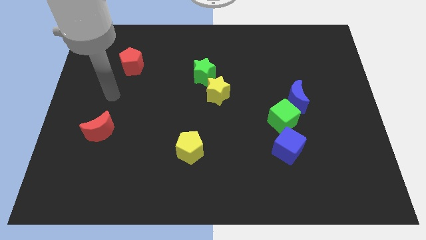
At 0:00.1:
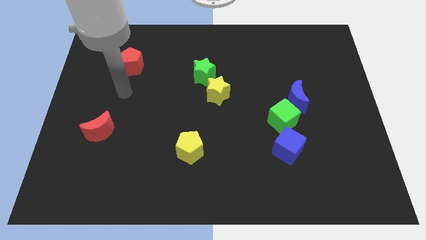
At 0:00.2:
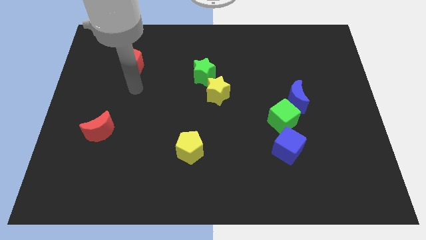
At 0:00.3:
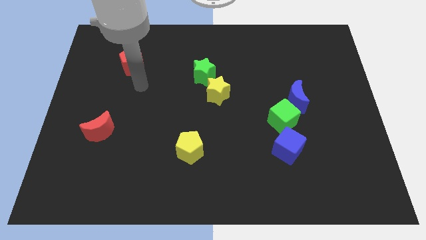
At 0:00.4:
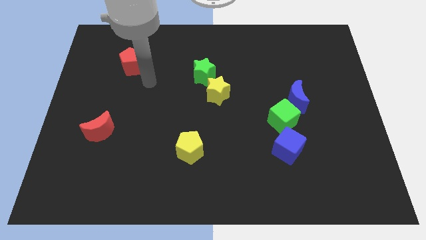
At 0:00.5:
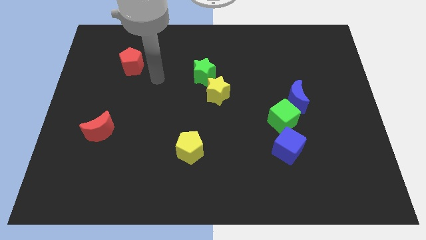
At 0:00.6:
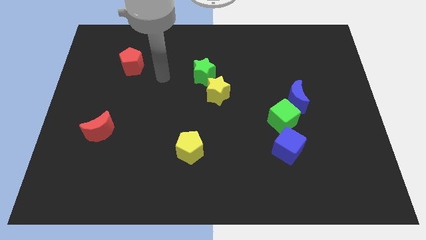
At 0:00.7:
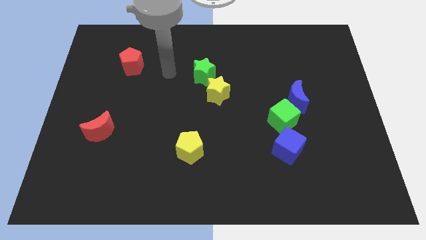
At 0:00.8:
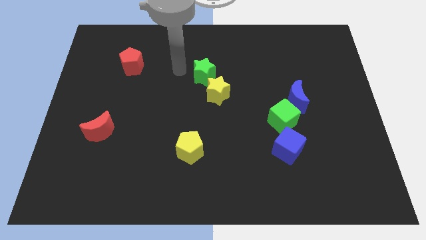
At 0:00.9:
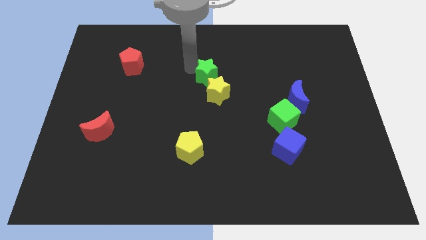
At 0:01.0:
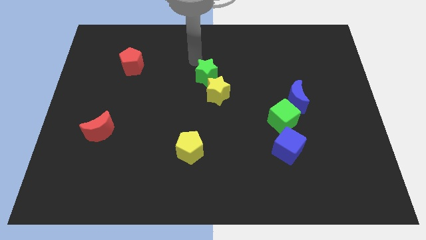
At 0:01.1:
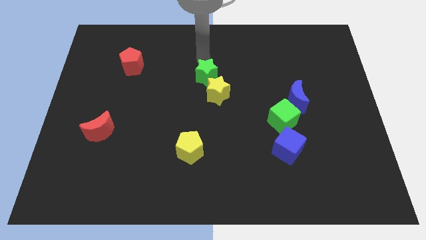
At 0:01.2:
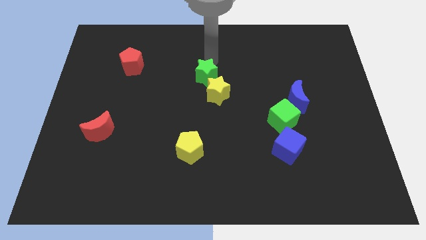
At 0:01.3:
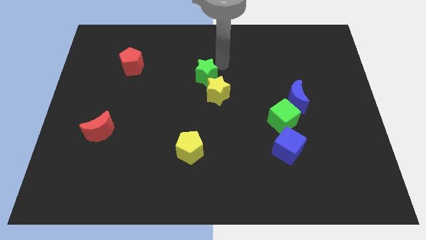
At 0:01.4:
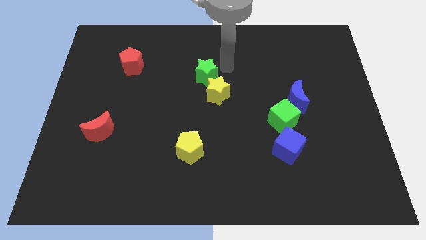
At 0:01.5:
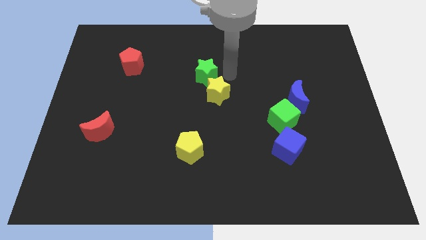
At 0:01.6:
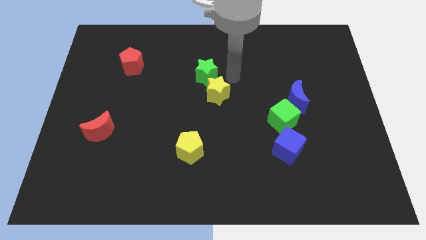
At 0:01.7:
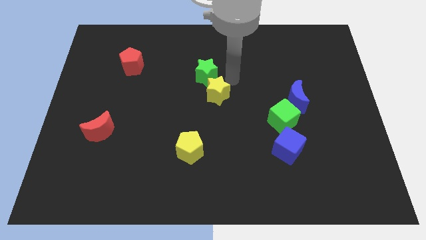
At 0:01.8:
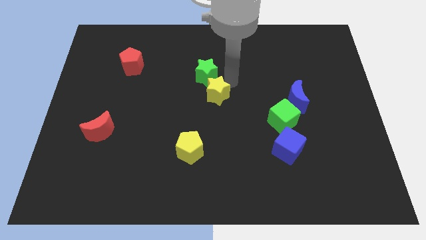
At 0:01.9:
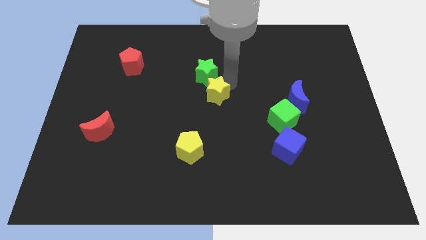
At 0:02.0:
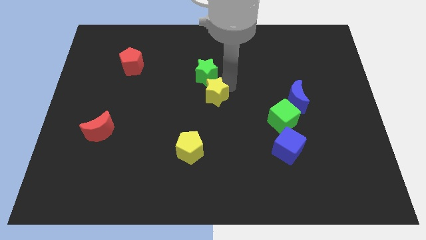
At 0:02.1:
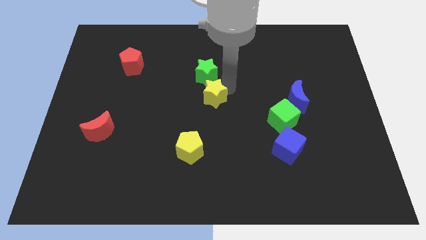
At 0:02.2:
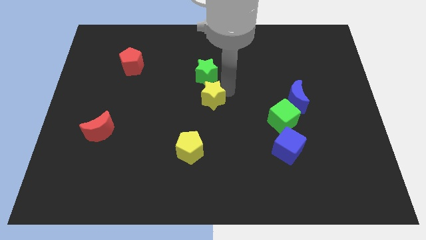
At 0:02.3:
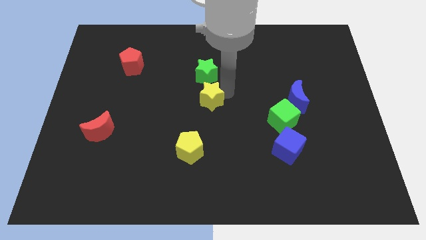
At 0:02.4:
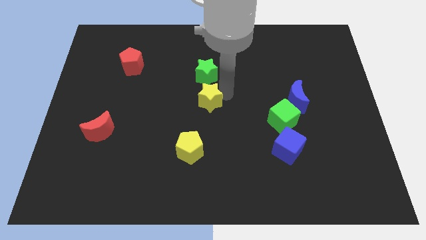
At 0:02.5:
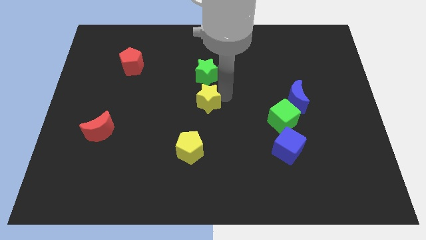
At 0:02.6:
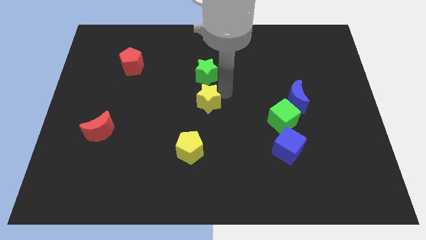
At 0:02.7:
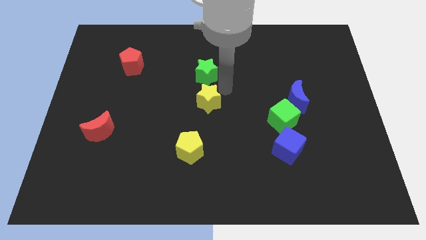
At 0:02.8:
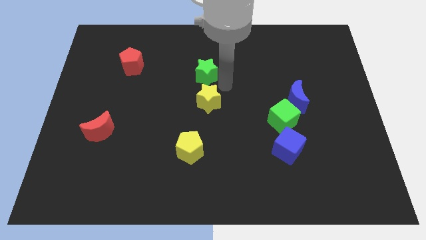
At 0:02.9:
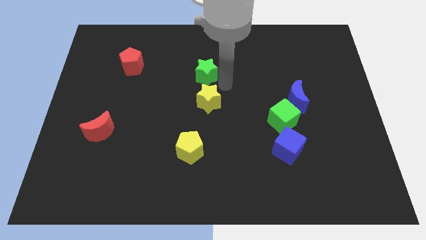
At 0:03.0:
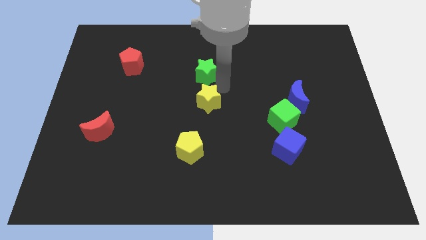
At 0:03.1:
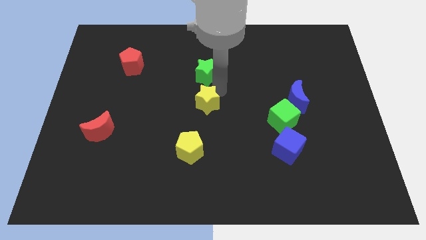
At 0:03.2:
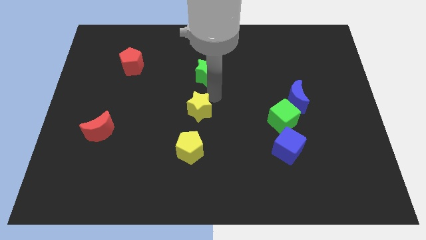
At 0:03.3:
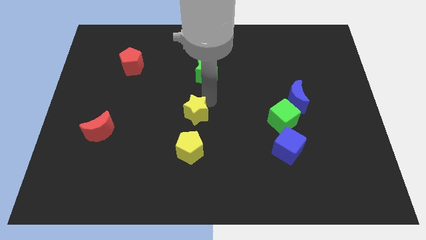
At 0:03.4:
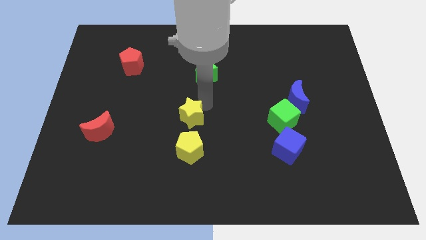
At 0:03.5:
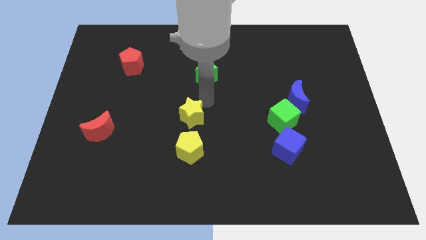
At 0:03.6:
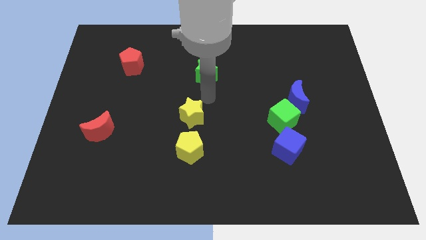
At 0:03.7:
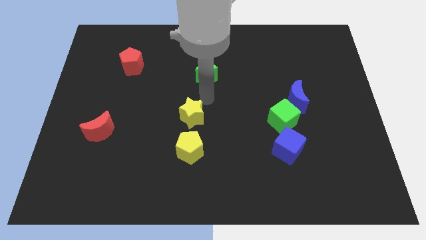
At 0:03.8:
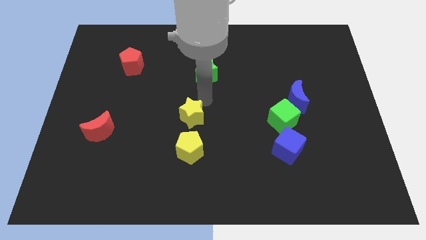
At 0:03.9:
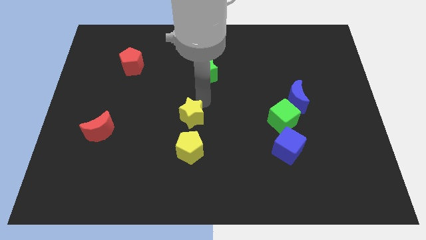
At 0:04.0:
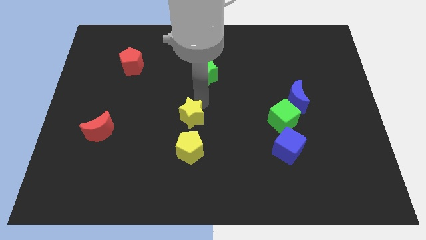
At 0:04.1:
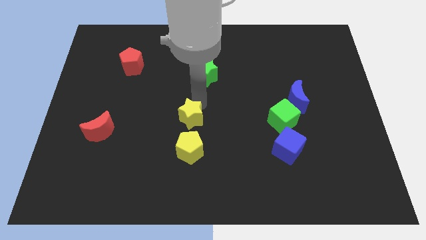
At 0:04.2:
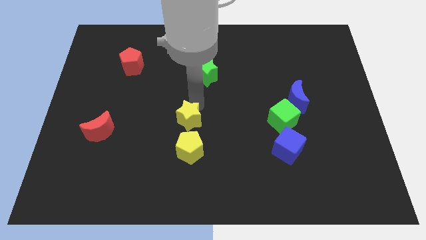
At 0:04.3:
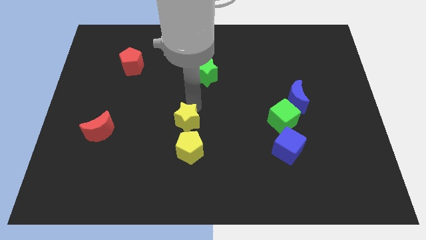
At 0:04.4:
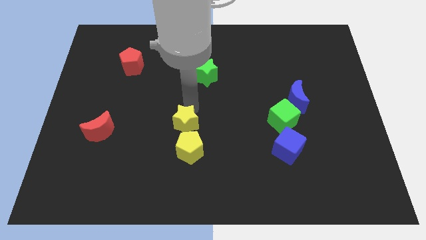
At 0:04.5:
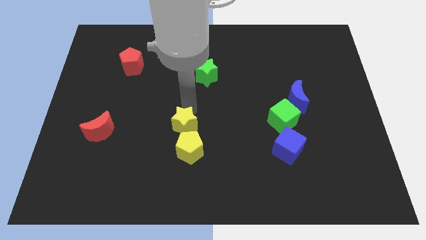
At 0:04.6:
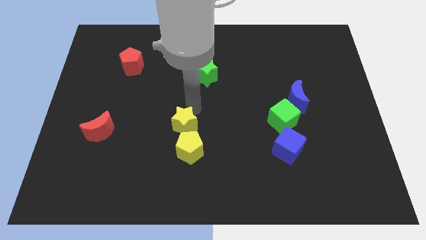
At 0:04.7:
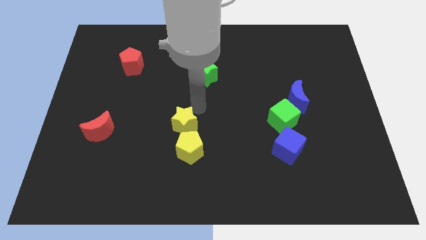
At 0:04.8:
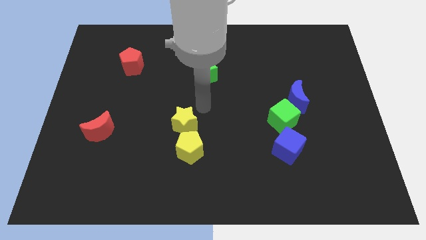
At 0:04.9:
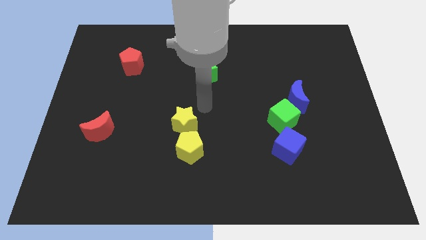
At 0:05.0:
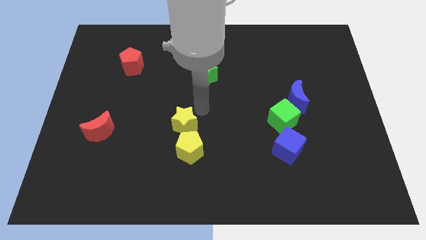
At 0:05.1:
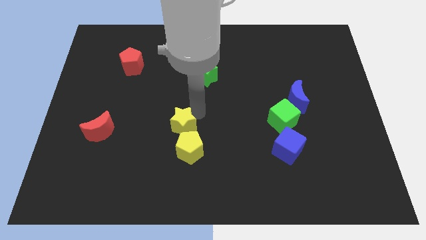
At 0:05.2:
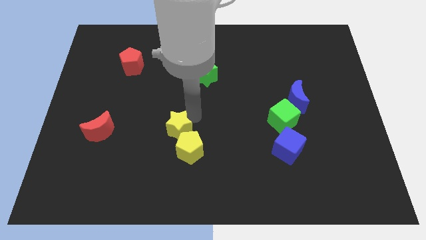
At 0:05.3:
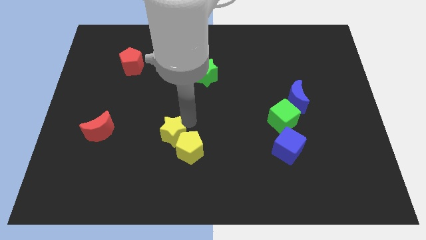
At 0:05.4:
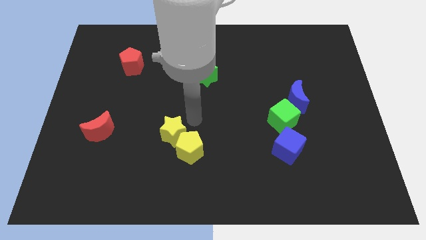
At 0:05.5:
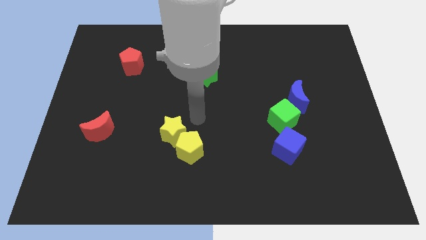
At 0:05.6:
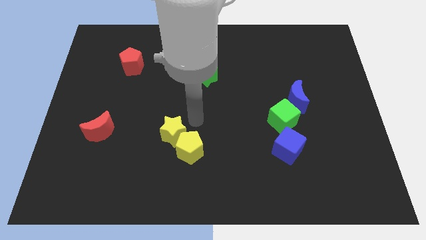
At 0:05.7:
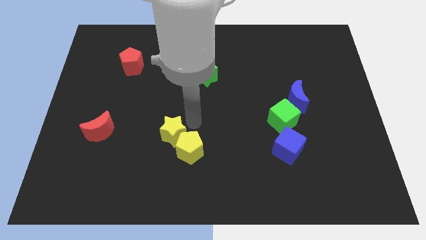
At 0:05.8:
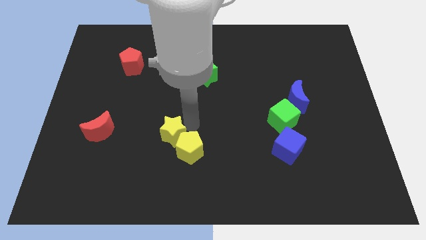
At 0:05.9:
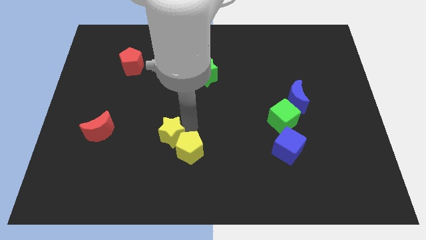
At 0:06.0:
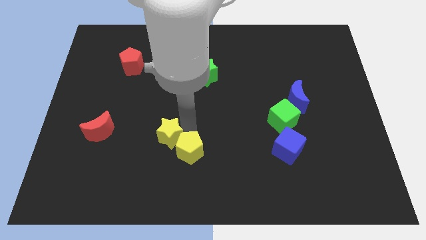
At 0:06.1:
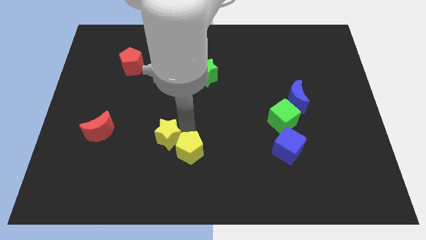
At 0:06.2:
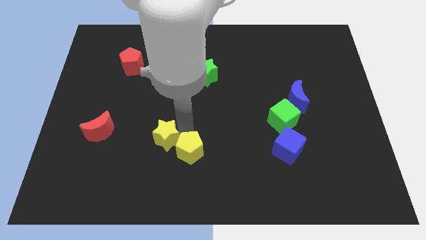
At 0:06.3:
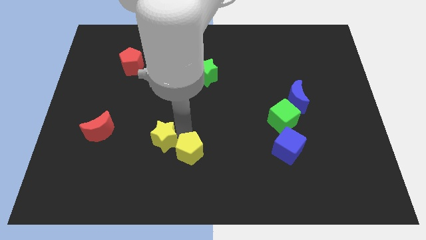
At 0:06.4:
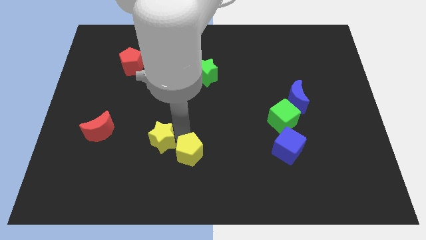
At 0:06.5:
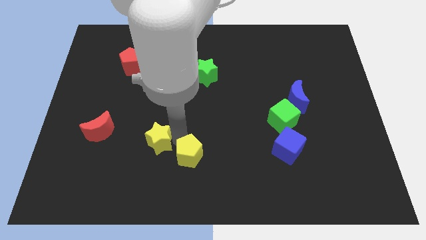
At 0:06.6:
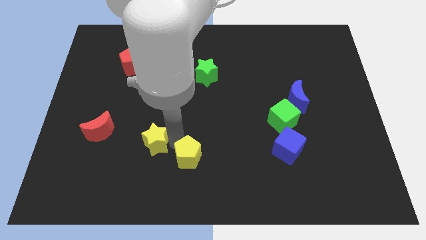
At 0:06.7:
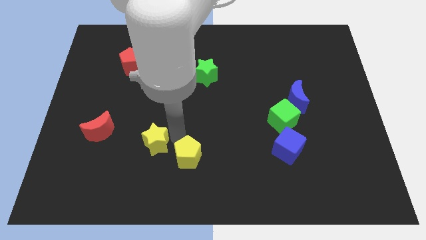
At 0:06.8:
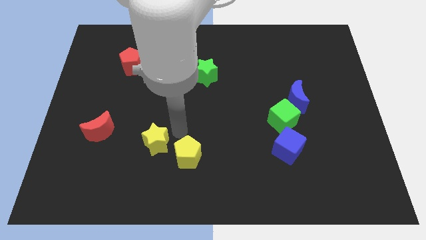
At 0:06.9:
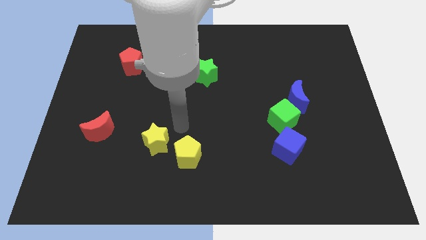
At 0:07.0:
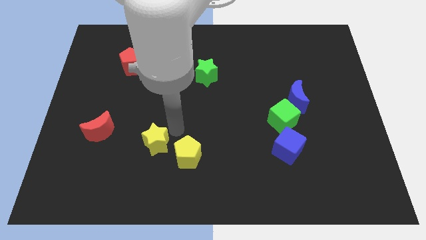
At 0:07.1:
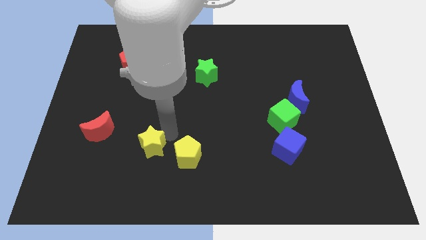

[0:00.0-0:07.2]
slide the yellow star diagonally down and to the left

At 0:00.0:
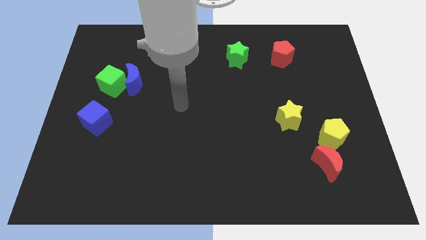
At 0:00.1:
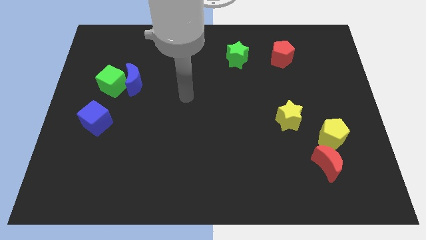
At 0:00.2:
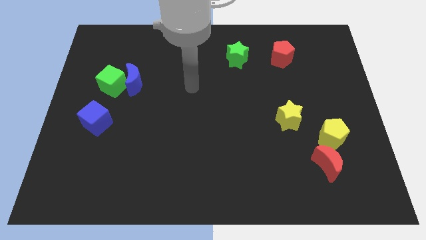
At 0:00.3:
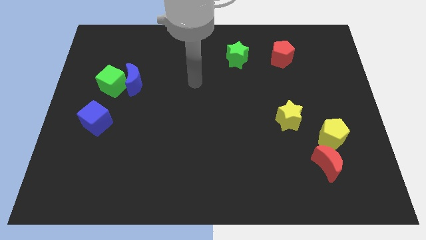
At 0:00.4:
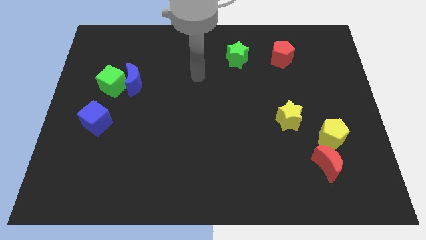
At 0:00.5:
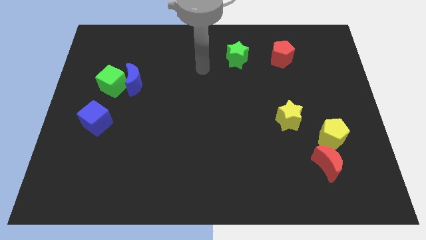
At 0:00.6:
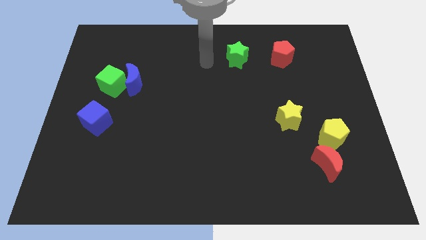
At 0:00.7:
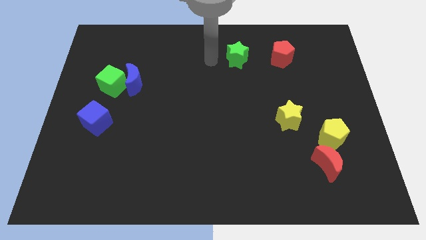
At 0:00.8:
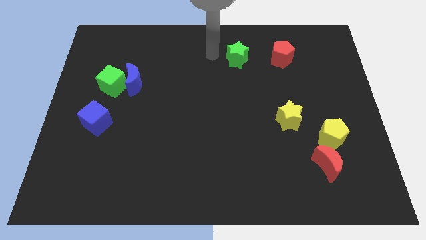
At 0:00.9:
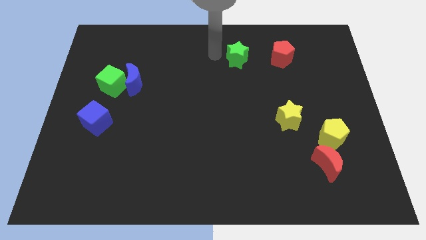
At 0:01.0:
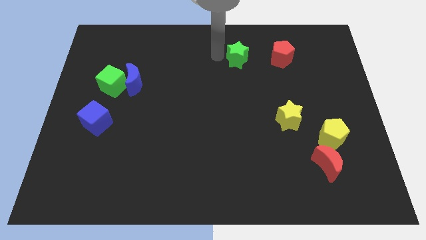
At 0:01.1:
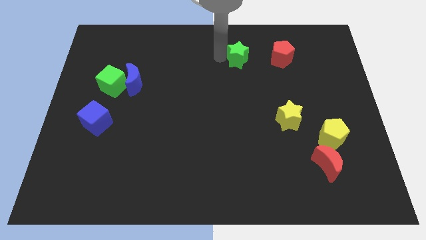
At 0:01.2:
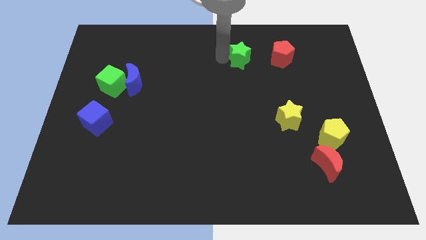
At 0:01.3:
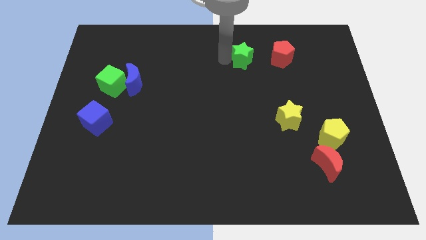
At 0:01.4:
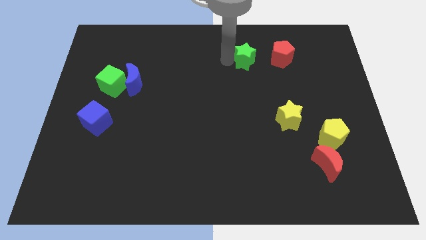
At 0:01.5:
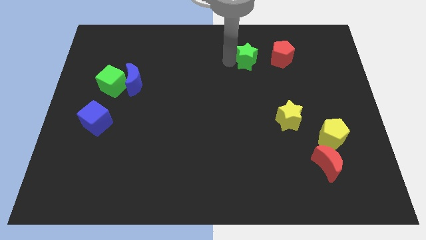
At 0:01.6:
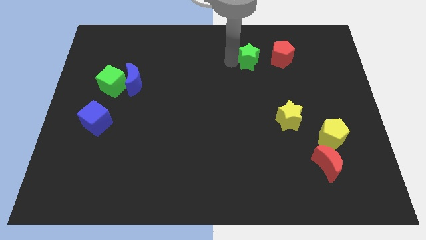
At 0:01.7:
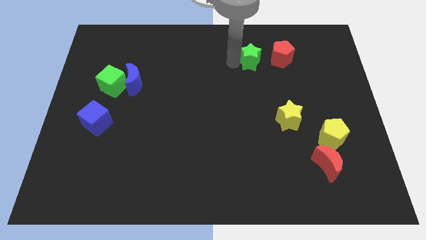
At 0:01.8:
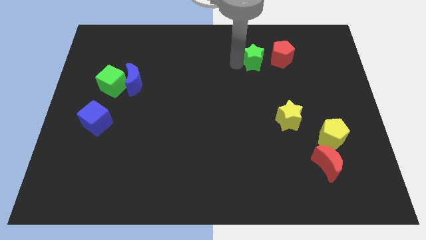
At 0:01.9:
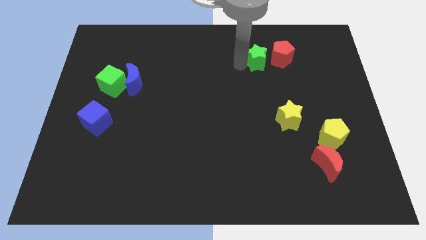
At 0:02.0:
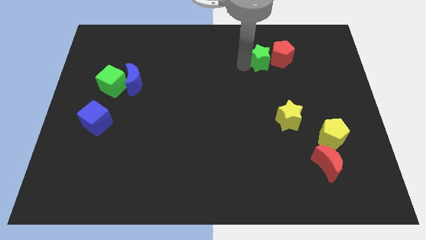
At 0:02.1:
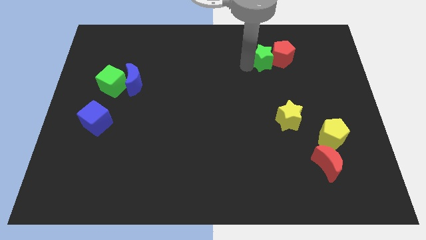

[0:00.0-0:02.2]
slightly push the green star right
